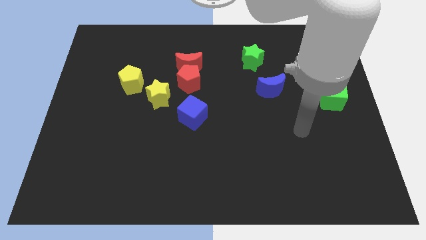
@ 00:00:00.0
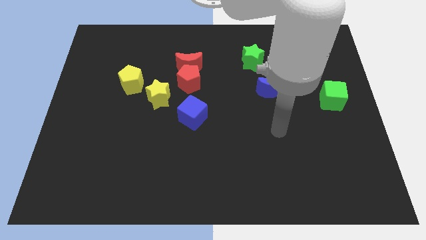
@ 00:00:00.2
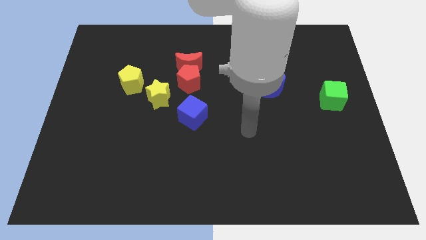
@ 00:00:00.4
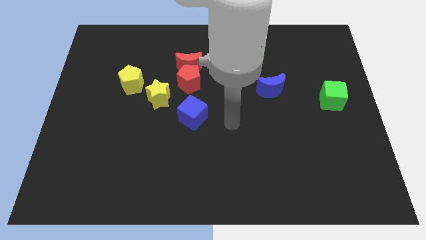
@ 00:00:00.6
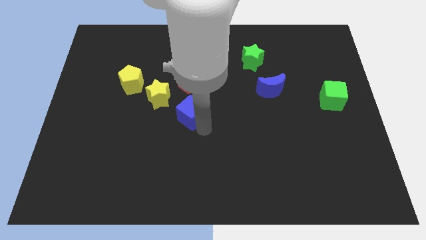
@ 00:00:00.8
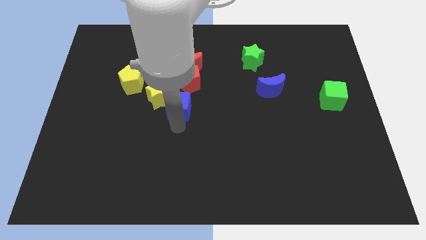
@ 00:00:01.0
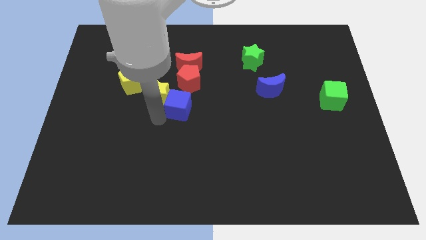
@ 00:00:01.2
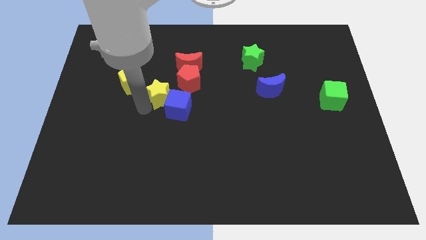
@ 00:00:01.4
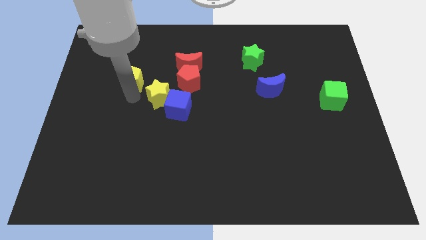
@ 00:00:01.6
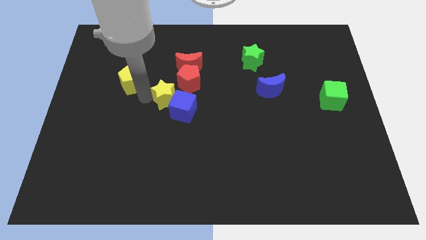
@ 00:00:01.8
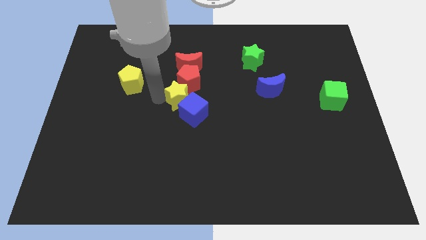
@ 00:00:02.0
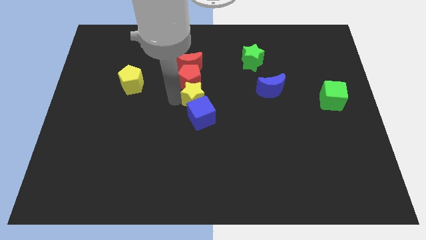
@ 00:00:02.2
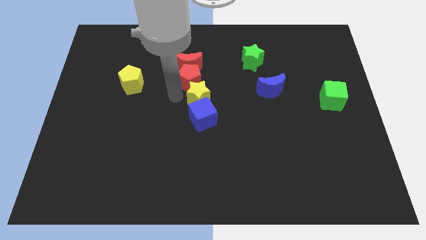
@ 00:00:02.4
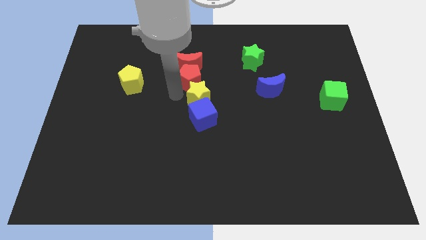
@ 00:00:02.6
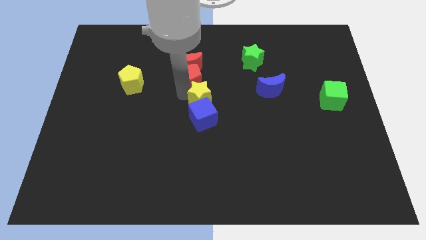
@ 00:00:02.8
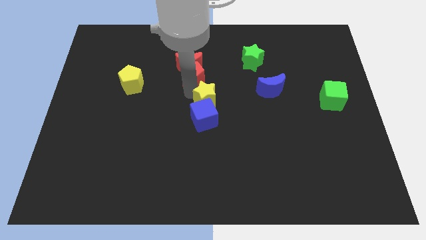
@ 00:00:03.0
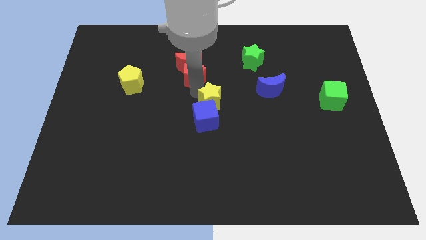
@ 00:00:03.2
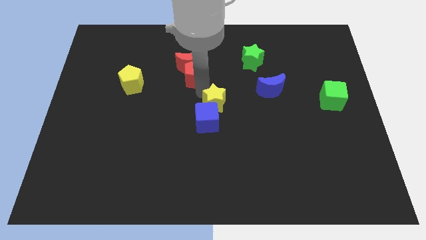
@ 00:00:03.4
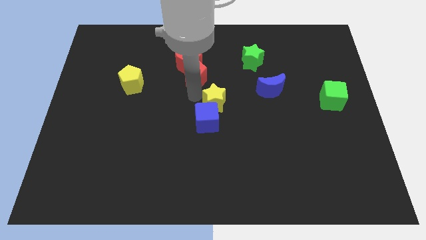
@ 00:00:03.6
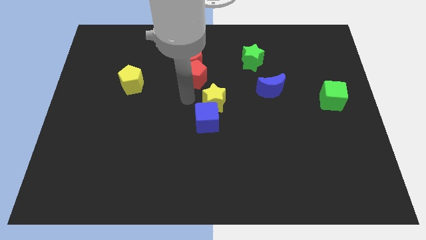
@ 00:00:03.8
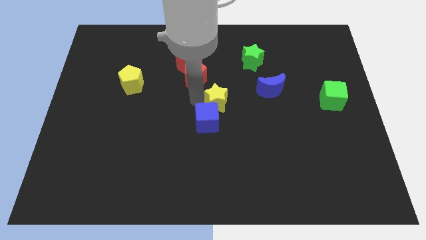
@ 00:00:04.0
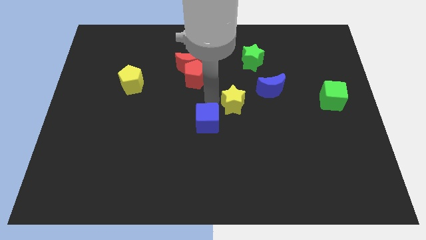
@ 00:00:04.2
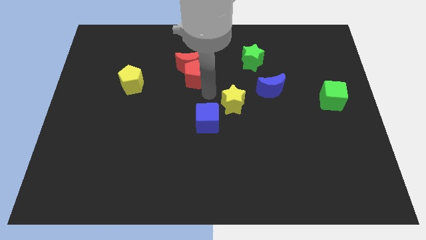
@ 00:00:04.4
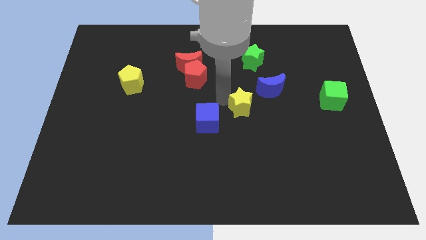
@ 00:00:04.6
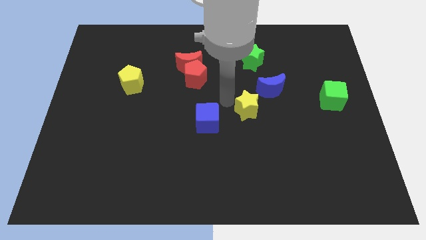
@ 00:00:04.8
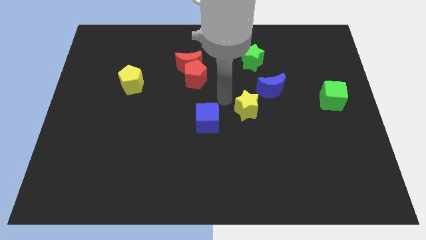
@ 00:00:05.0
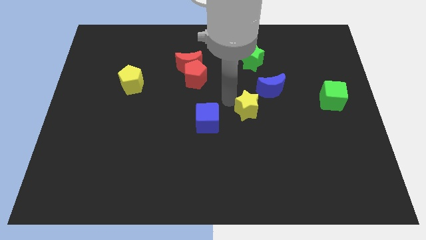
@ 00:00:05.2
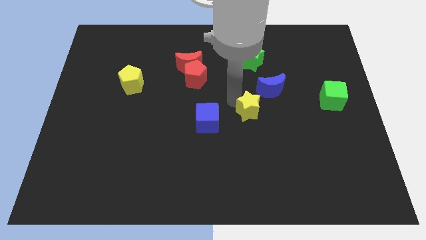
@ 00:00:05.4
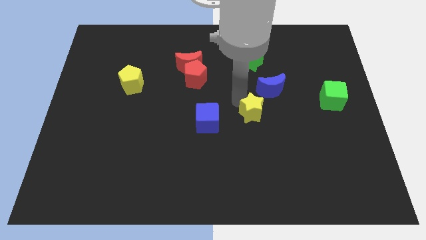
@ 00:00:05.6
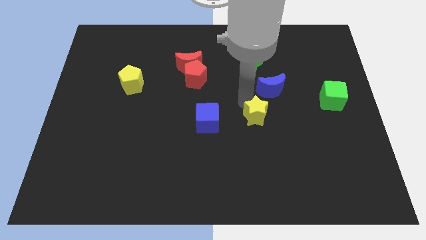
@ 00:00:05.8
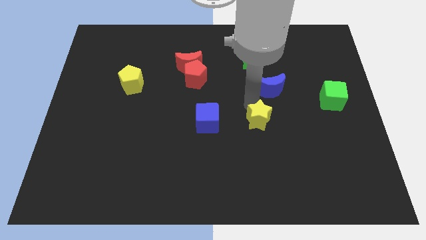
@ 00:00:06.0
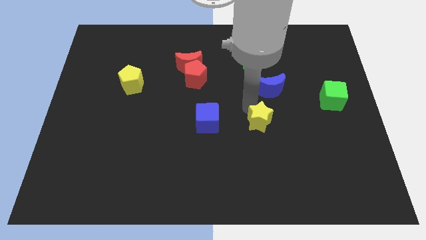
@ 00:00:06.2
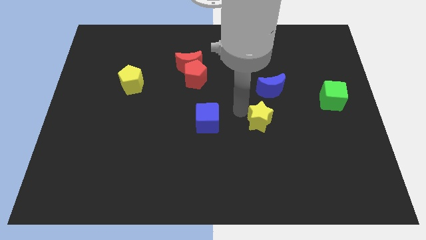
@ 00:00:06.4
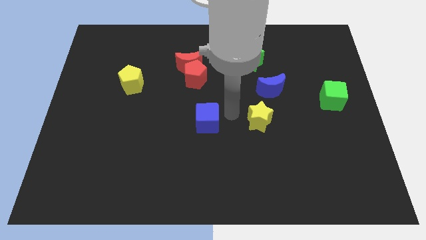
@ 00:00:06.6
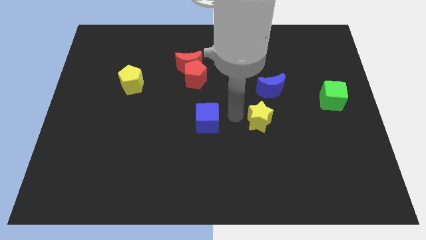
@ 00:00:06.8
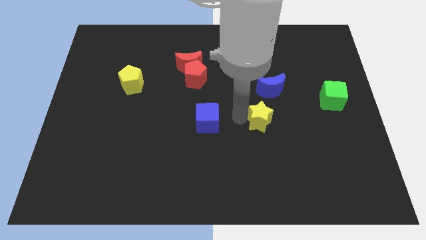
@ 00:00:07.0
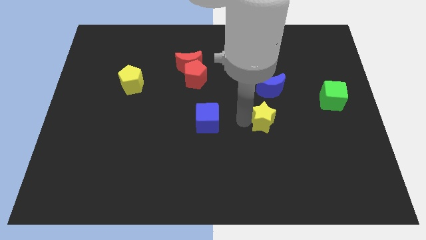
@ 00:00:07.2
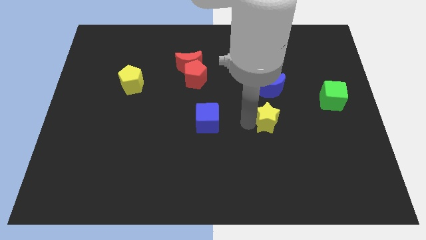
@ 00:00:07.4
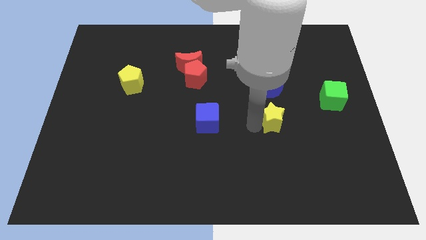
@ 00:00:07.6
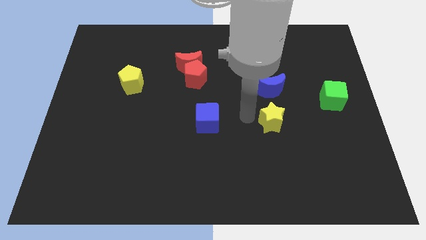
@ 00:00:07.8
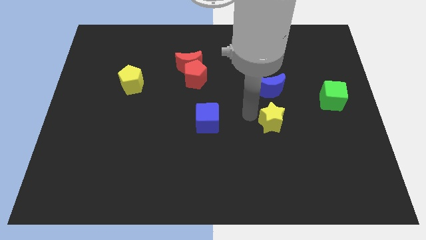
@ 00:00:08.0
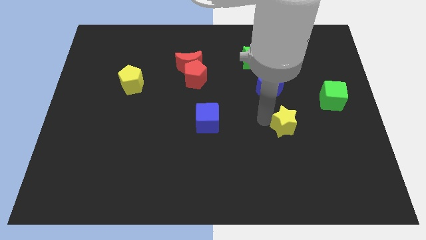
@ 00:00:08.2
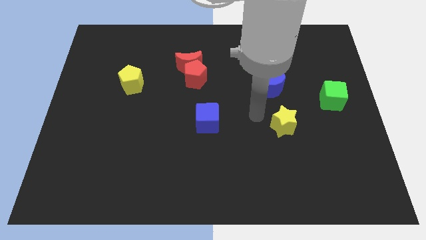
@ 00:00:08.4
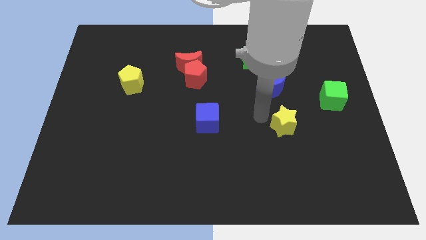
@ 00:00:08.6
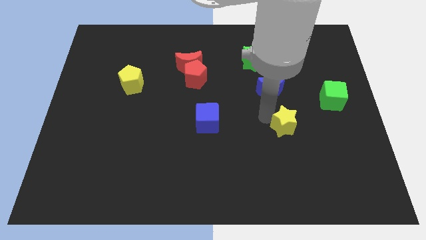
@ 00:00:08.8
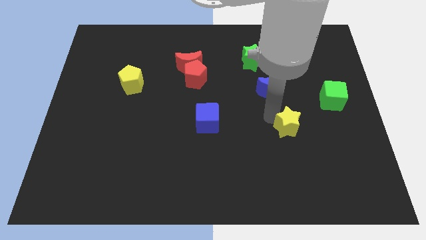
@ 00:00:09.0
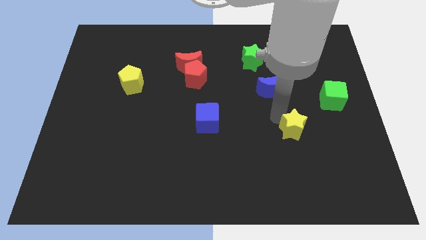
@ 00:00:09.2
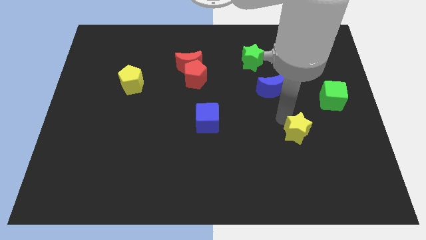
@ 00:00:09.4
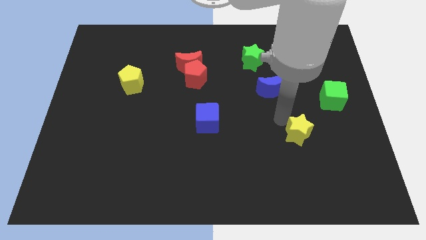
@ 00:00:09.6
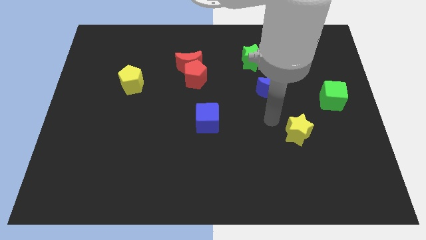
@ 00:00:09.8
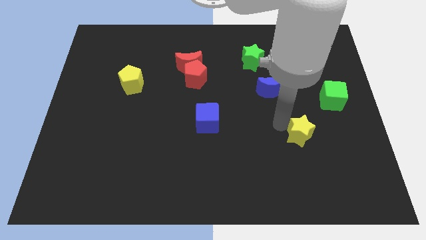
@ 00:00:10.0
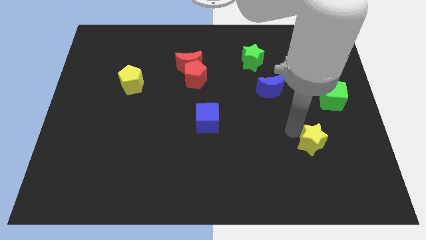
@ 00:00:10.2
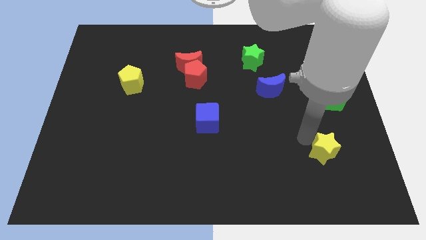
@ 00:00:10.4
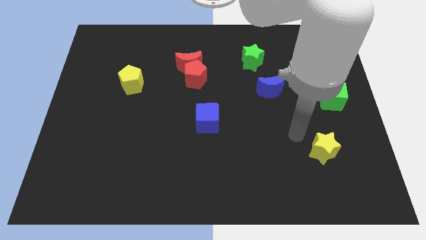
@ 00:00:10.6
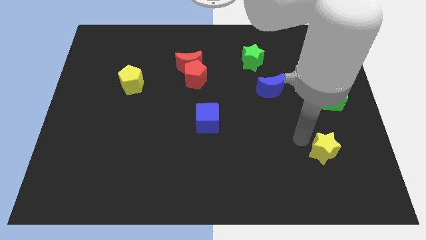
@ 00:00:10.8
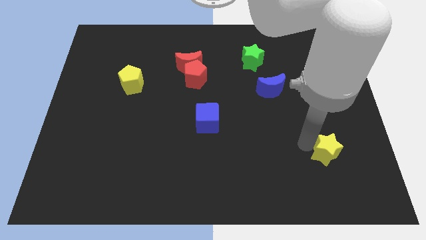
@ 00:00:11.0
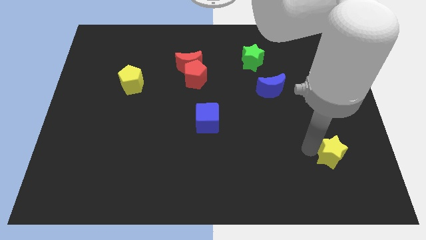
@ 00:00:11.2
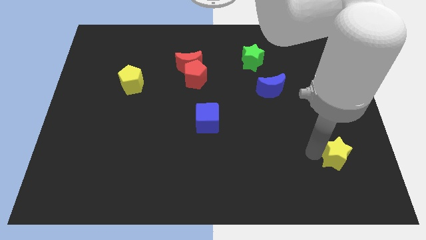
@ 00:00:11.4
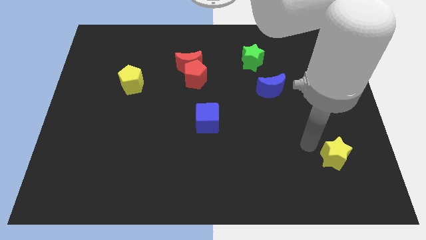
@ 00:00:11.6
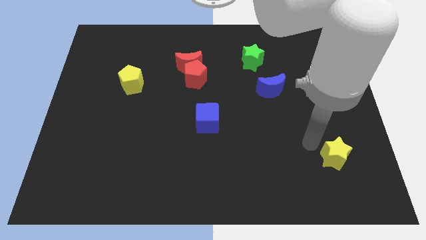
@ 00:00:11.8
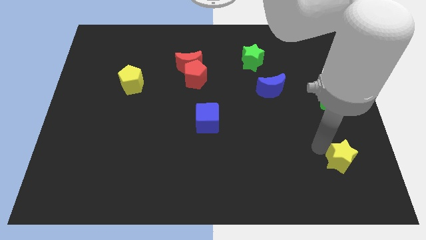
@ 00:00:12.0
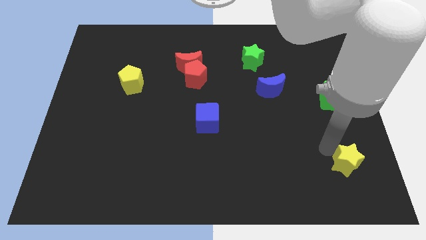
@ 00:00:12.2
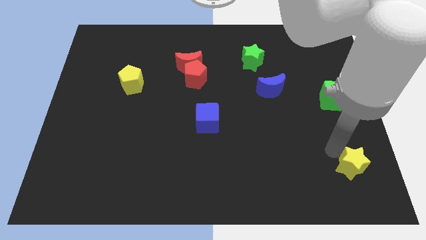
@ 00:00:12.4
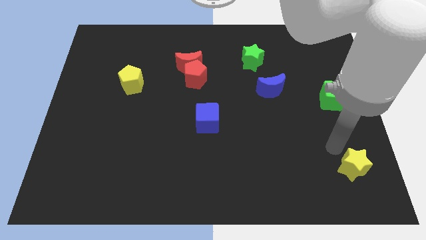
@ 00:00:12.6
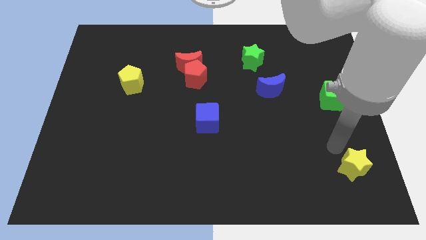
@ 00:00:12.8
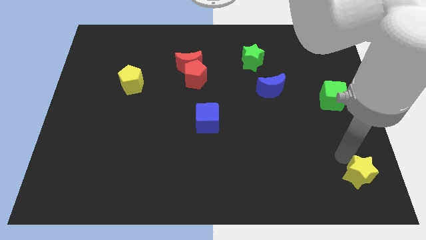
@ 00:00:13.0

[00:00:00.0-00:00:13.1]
put the yellow star to the lower right corner
